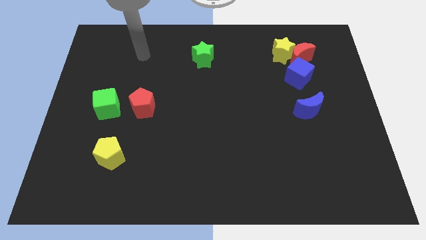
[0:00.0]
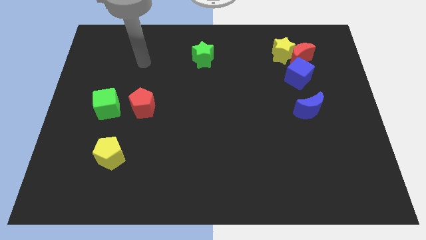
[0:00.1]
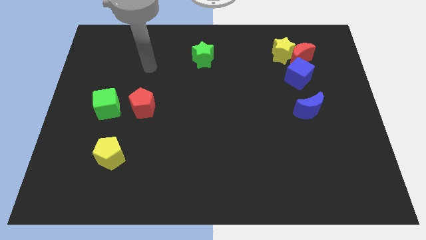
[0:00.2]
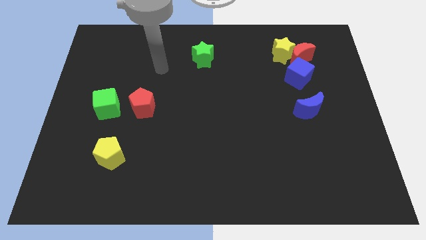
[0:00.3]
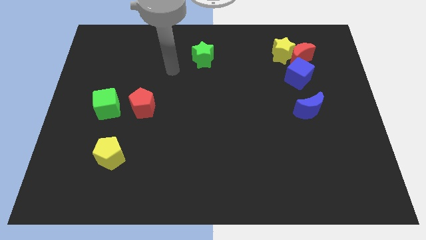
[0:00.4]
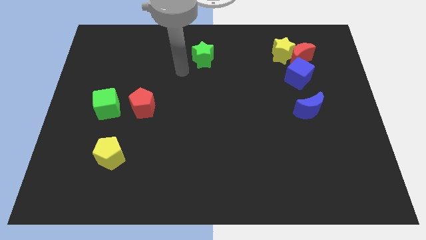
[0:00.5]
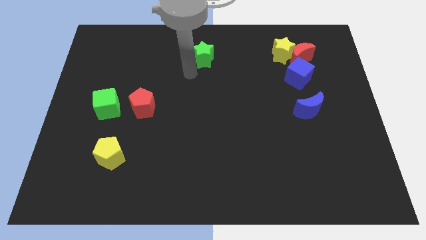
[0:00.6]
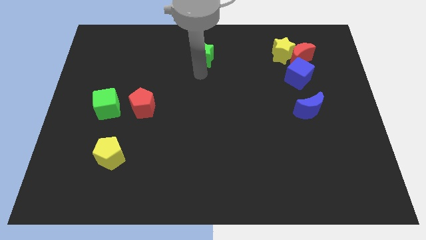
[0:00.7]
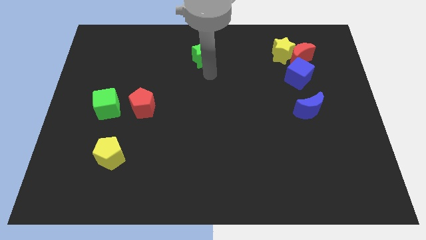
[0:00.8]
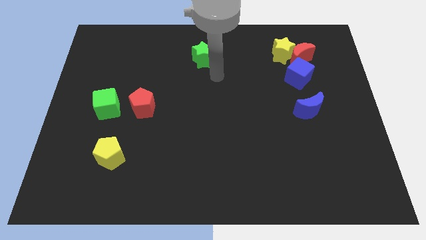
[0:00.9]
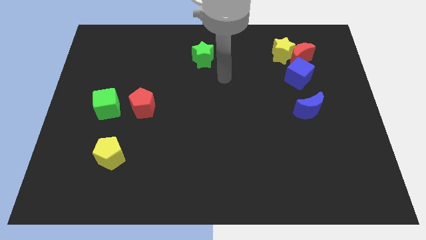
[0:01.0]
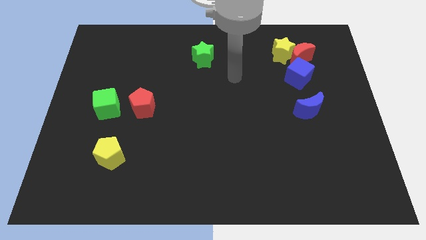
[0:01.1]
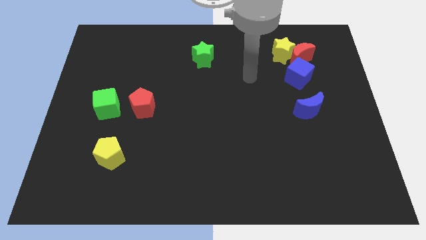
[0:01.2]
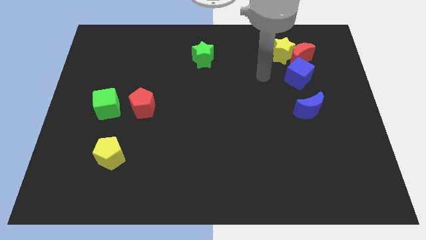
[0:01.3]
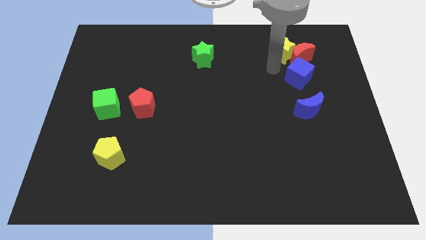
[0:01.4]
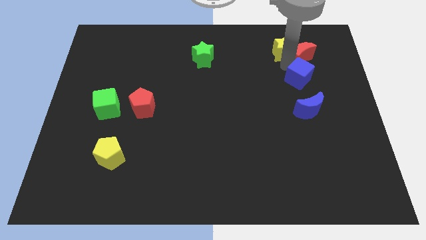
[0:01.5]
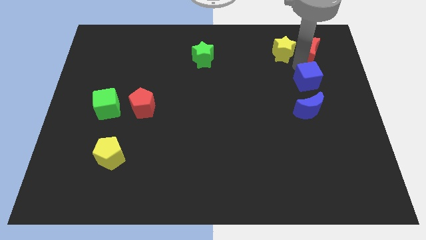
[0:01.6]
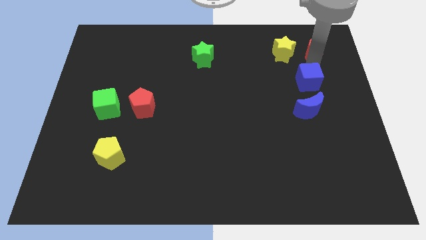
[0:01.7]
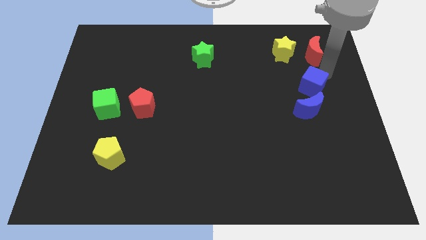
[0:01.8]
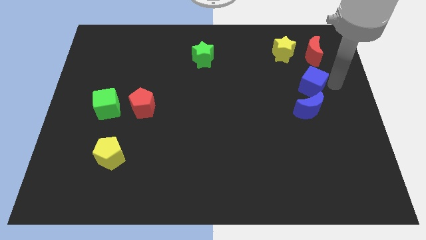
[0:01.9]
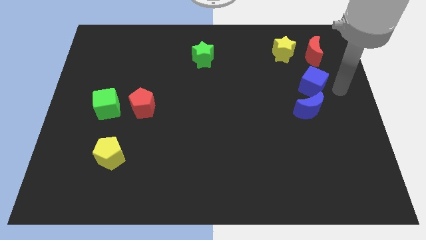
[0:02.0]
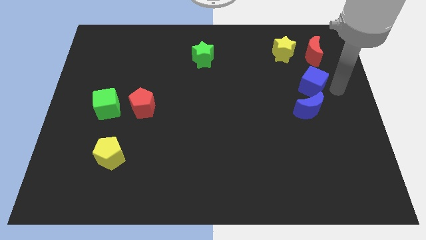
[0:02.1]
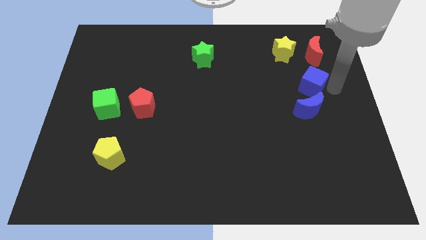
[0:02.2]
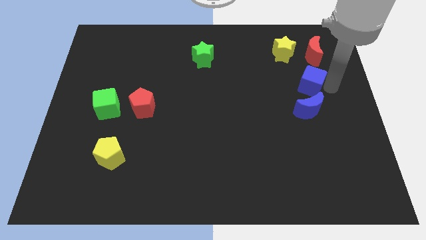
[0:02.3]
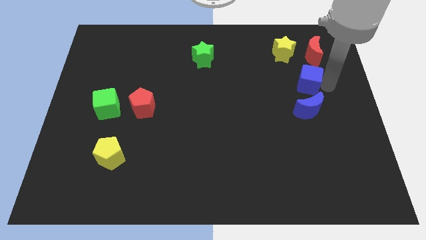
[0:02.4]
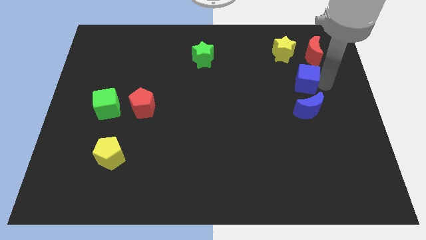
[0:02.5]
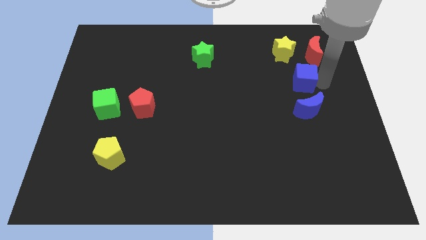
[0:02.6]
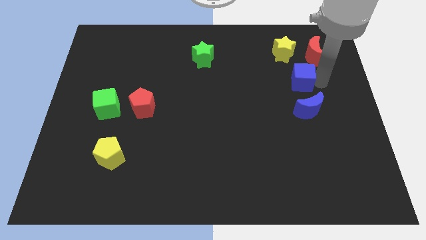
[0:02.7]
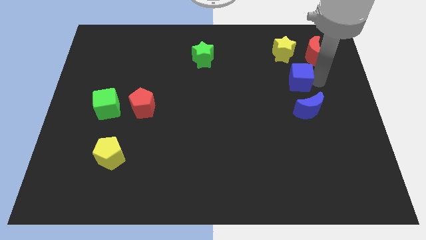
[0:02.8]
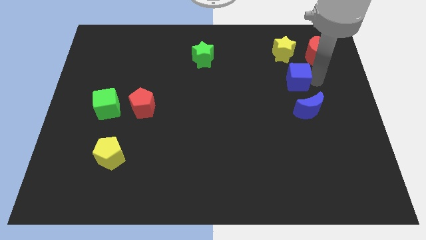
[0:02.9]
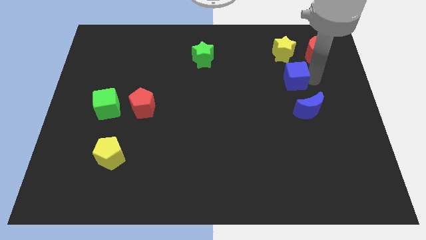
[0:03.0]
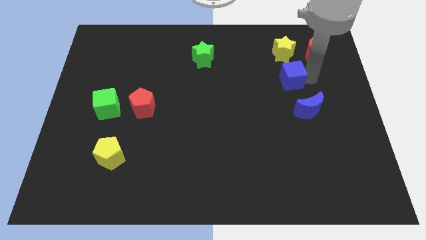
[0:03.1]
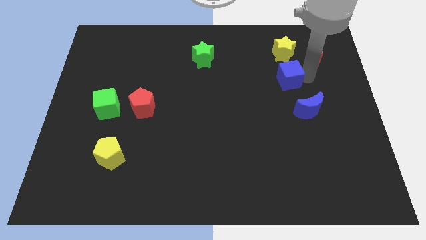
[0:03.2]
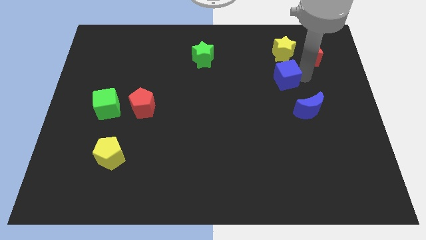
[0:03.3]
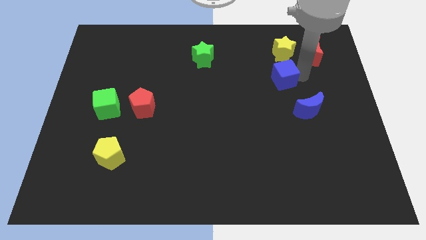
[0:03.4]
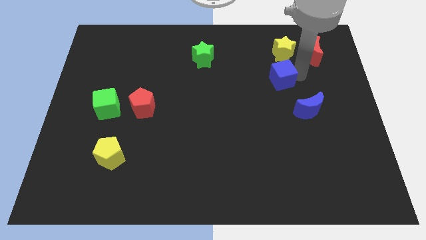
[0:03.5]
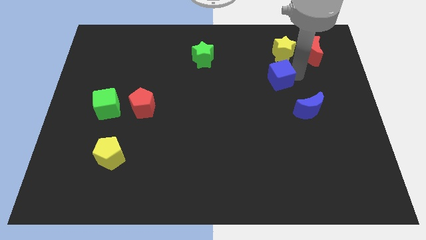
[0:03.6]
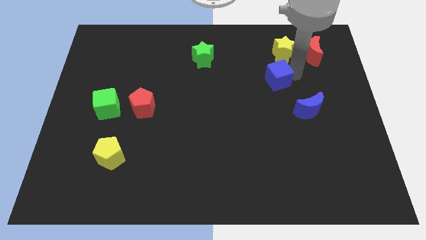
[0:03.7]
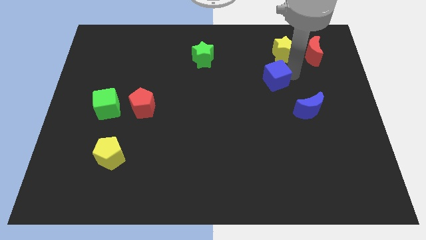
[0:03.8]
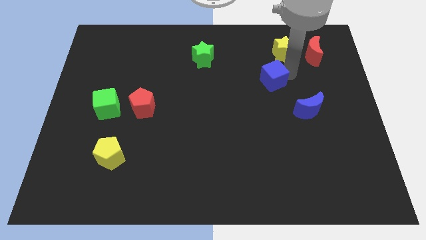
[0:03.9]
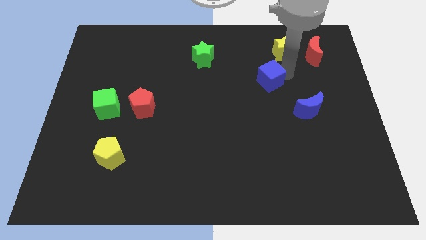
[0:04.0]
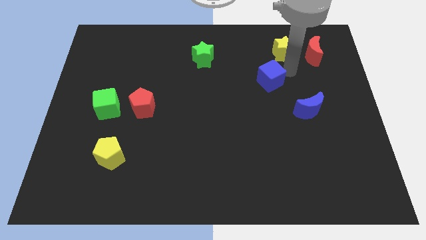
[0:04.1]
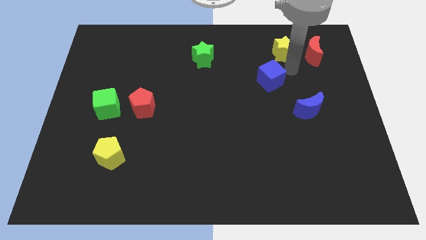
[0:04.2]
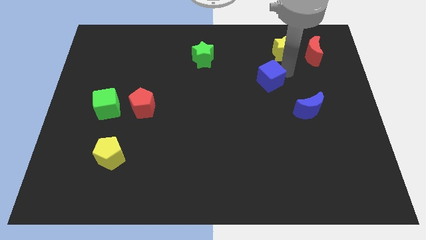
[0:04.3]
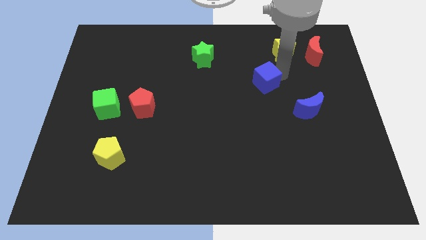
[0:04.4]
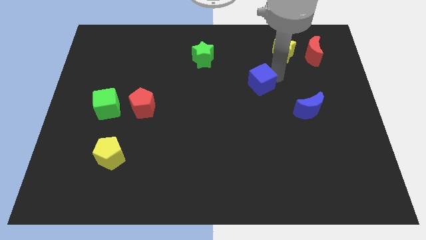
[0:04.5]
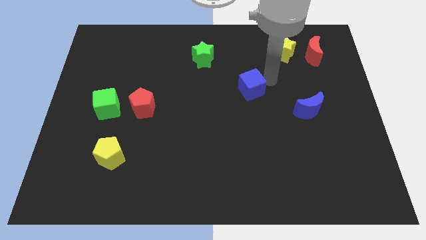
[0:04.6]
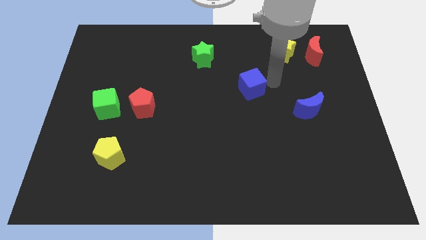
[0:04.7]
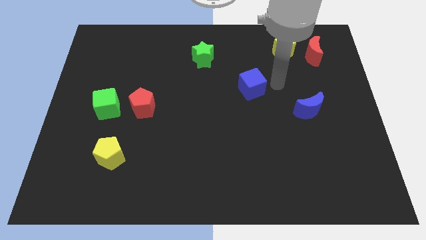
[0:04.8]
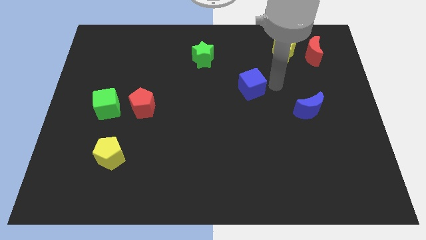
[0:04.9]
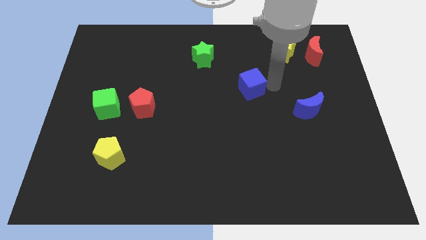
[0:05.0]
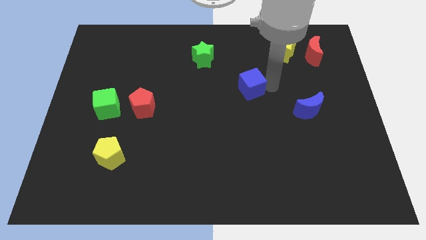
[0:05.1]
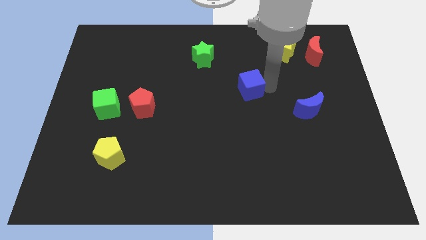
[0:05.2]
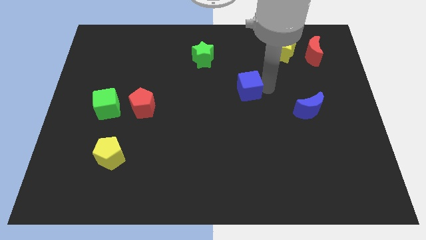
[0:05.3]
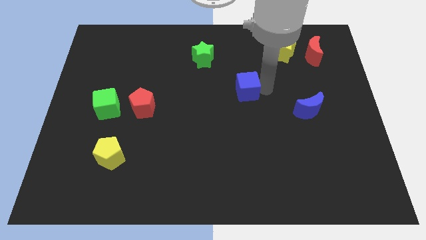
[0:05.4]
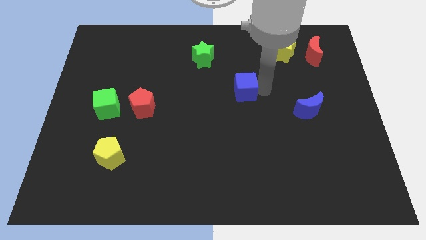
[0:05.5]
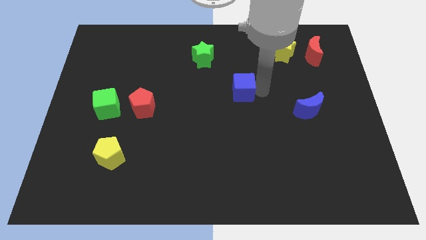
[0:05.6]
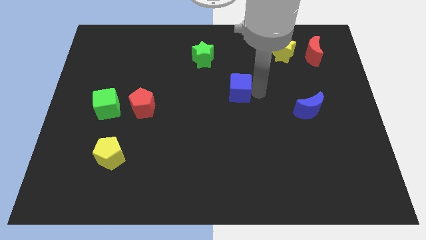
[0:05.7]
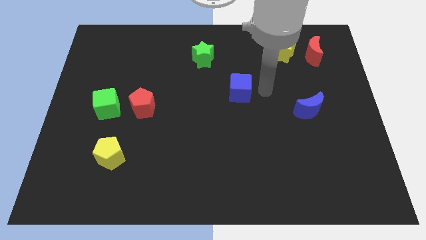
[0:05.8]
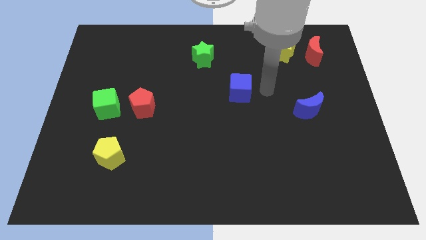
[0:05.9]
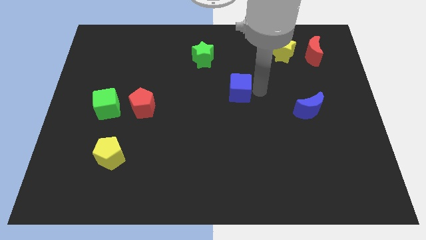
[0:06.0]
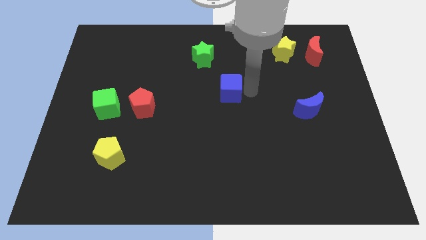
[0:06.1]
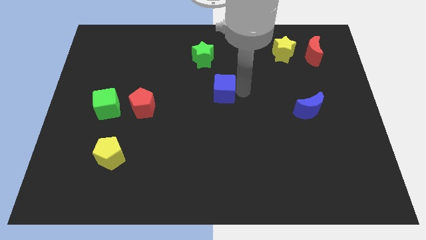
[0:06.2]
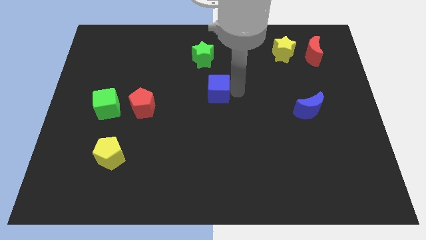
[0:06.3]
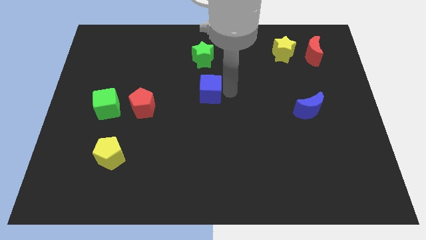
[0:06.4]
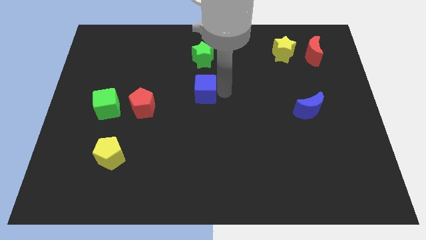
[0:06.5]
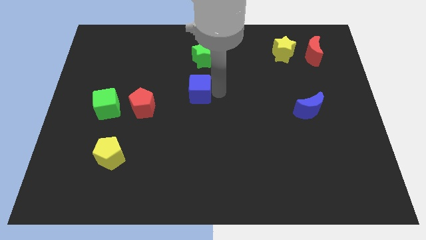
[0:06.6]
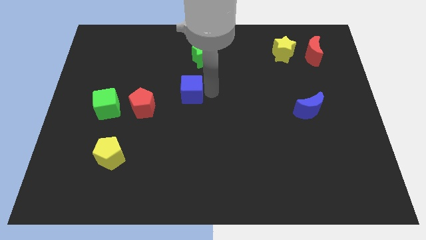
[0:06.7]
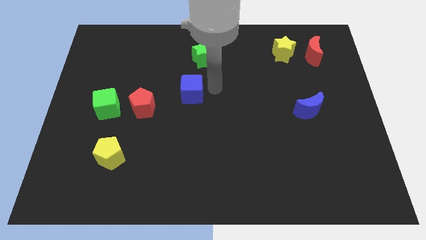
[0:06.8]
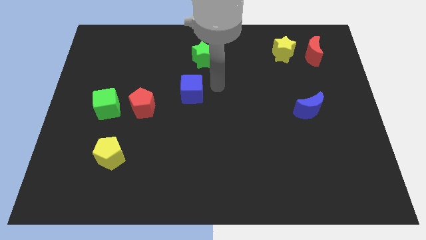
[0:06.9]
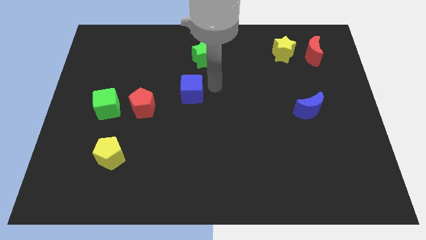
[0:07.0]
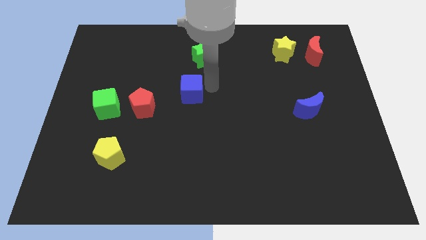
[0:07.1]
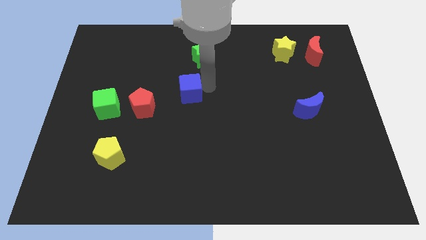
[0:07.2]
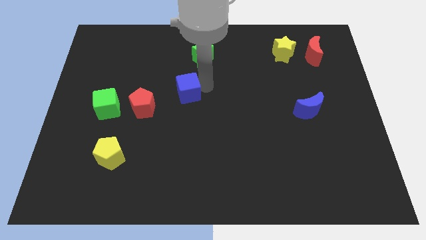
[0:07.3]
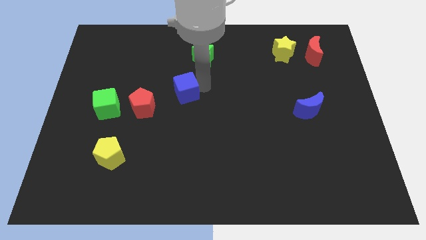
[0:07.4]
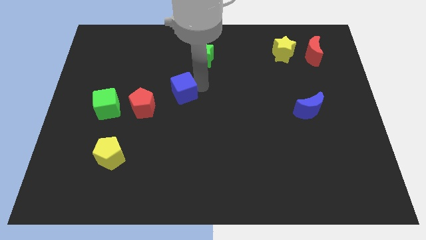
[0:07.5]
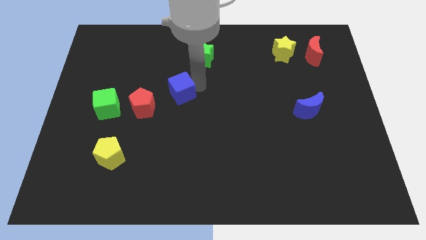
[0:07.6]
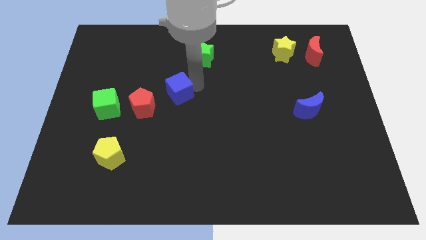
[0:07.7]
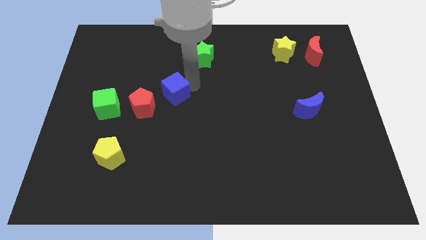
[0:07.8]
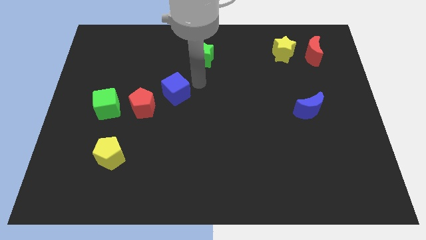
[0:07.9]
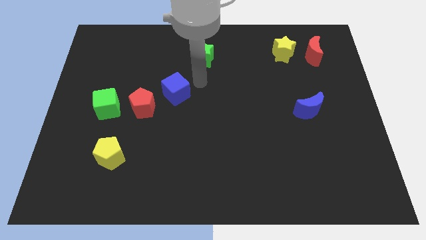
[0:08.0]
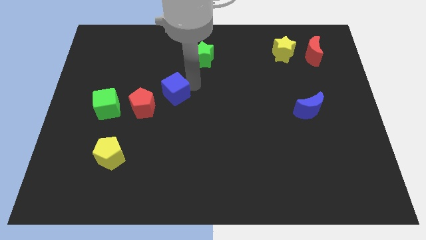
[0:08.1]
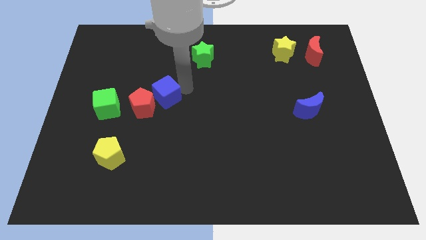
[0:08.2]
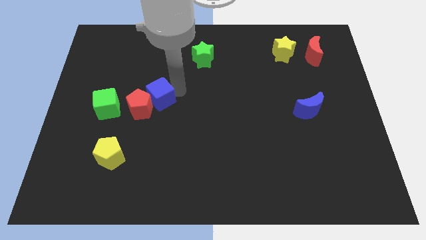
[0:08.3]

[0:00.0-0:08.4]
push the blue cube towards the red pentagon
